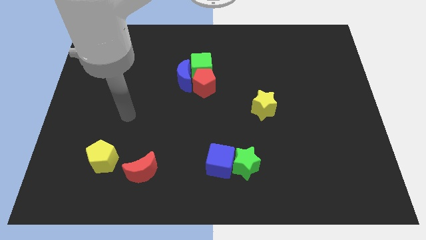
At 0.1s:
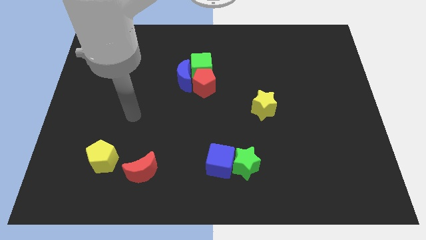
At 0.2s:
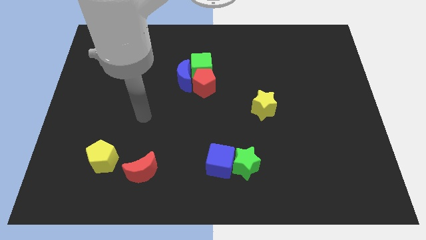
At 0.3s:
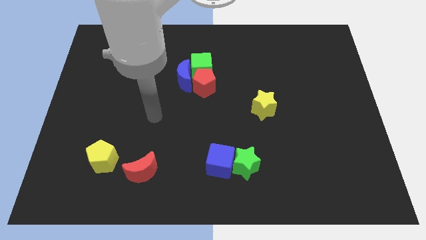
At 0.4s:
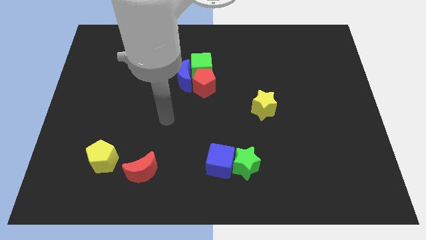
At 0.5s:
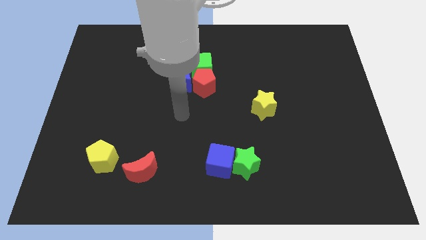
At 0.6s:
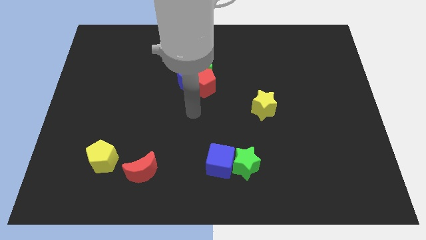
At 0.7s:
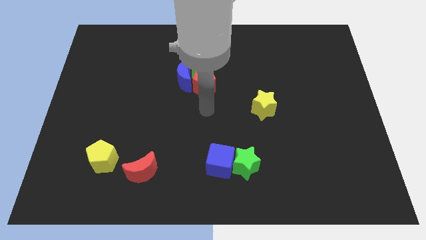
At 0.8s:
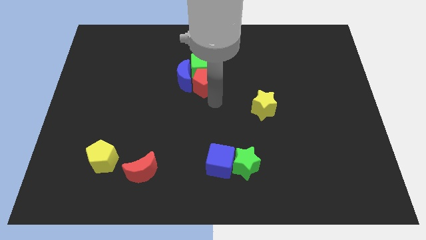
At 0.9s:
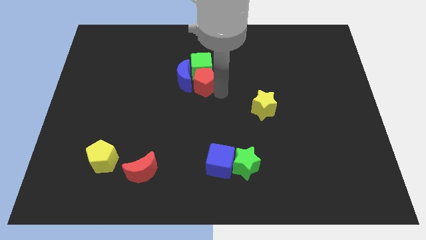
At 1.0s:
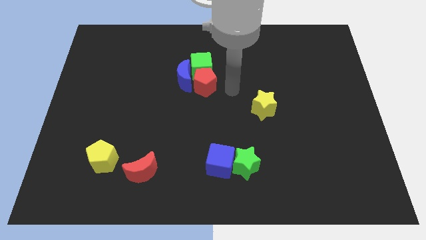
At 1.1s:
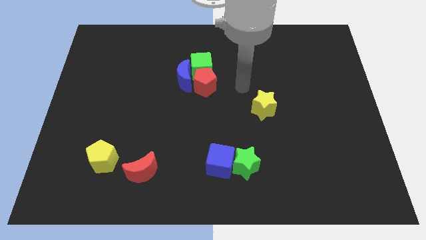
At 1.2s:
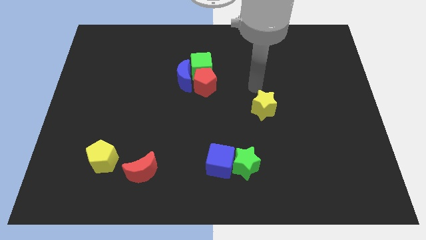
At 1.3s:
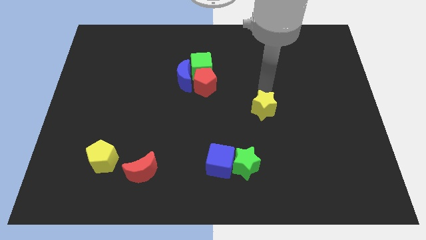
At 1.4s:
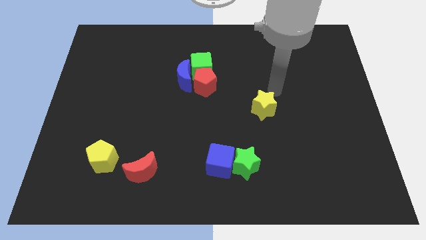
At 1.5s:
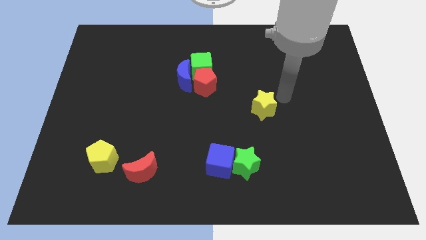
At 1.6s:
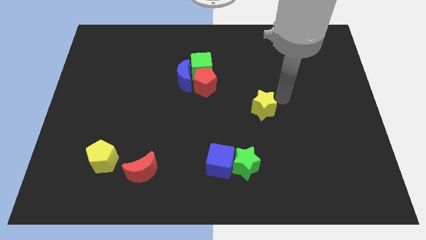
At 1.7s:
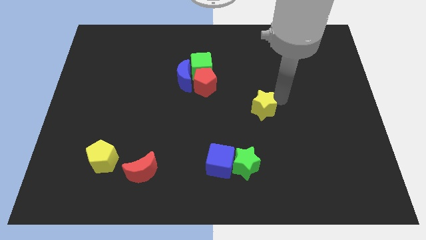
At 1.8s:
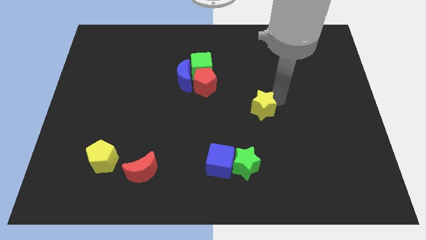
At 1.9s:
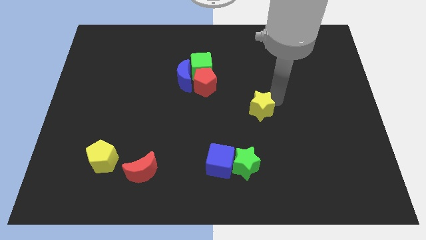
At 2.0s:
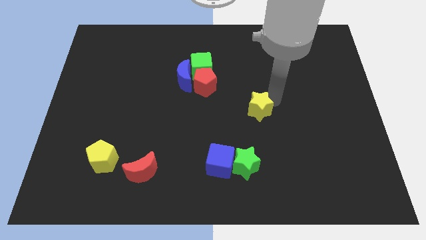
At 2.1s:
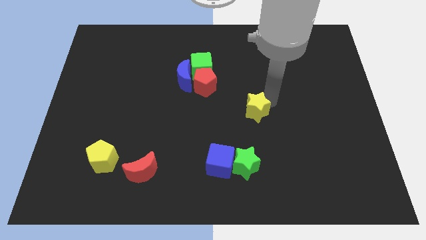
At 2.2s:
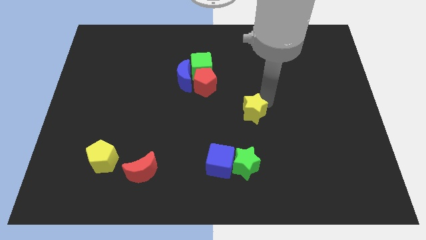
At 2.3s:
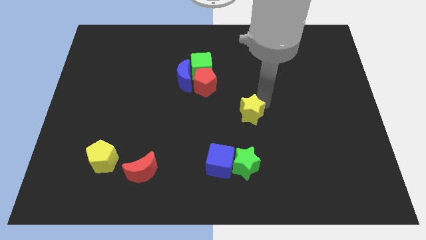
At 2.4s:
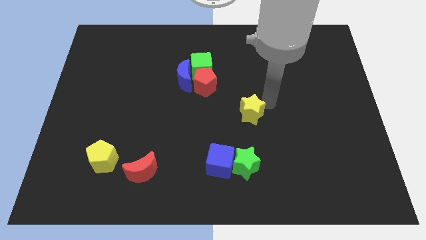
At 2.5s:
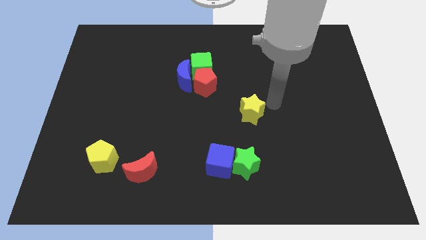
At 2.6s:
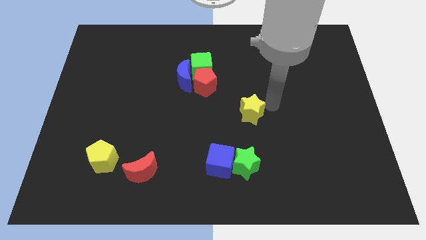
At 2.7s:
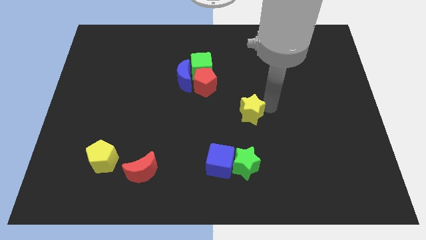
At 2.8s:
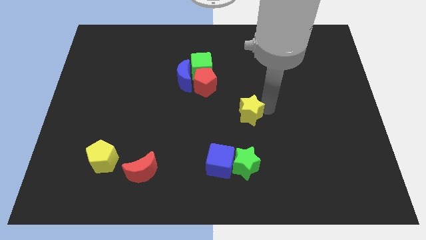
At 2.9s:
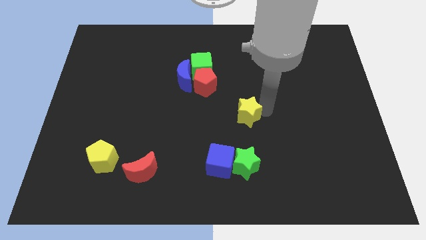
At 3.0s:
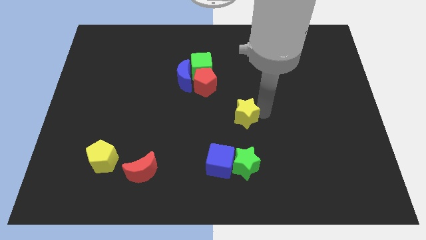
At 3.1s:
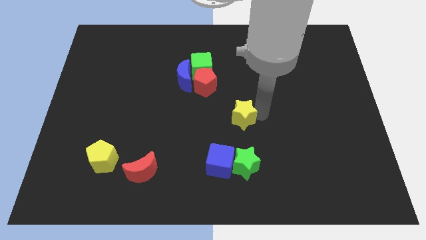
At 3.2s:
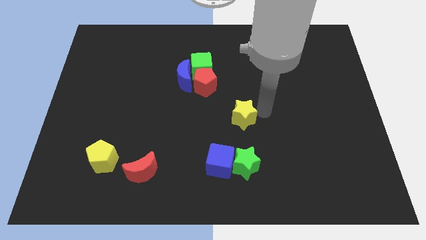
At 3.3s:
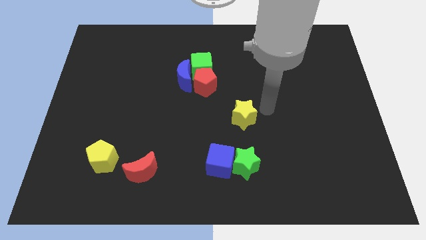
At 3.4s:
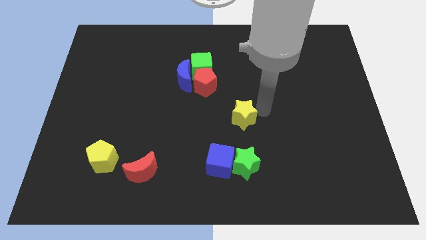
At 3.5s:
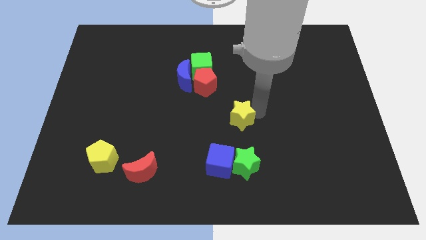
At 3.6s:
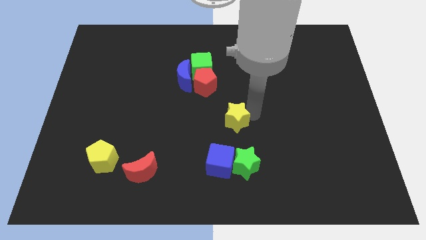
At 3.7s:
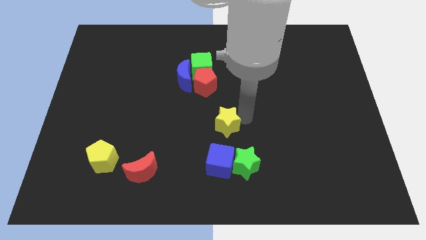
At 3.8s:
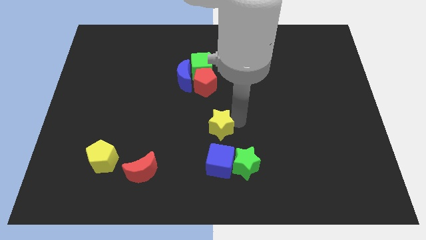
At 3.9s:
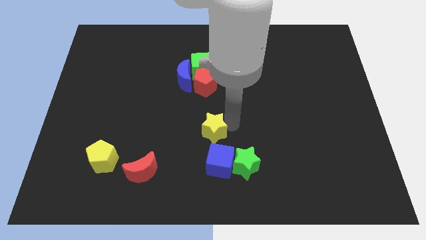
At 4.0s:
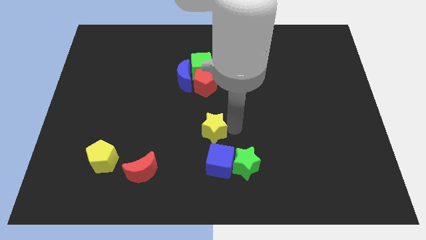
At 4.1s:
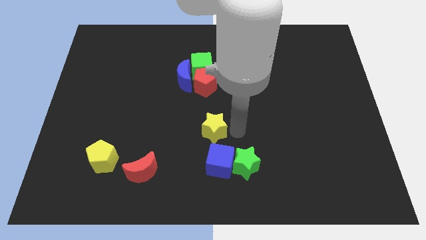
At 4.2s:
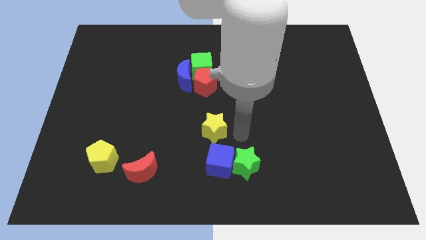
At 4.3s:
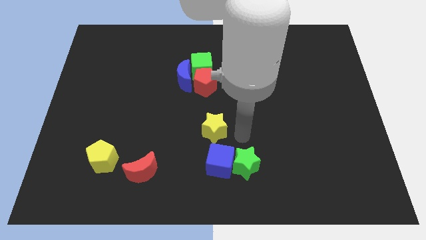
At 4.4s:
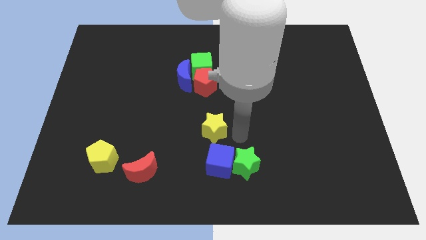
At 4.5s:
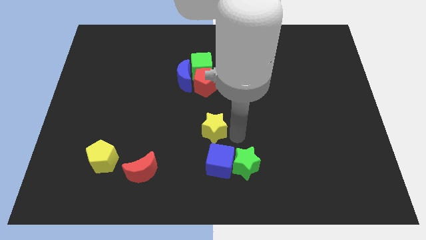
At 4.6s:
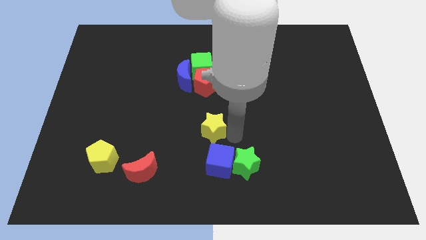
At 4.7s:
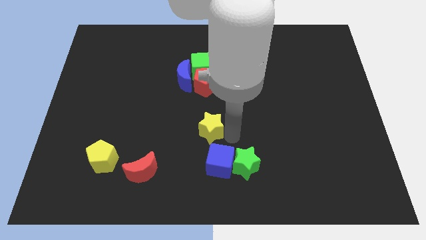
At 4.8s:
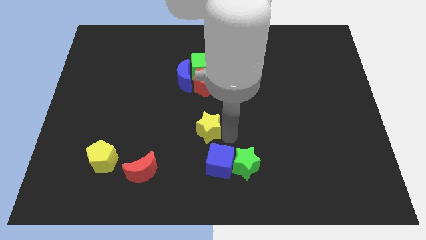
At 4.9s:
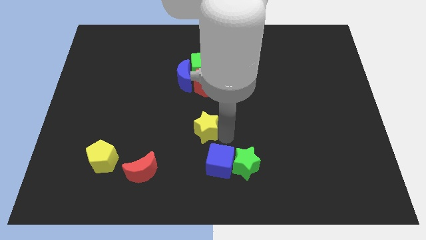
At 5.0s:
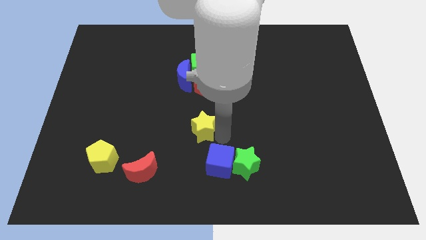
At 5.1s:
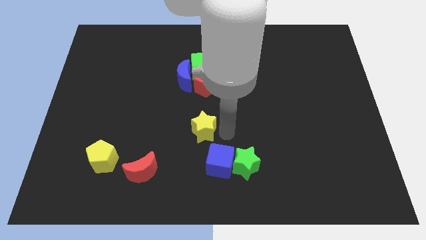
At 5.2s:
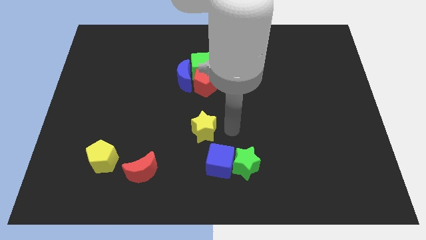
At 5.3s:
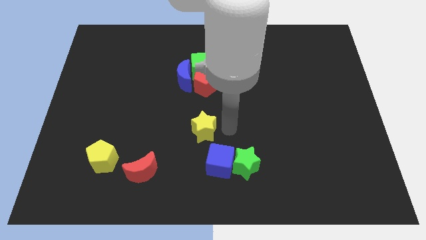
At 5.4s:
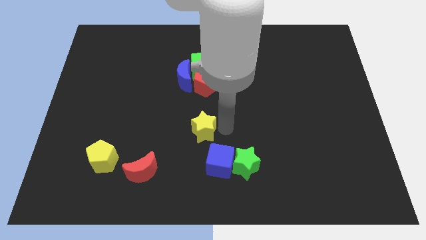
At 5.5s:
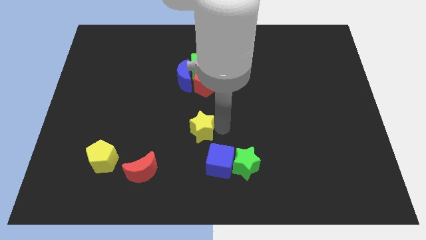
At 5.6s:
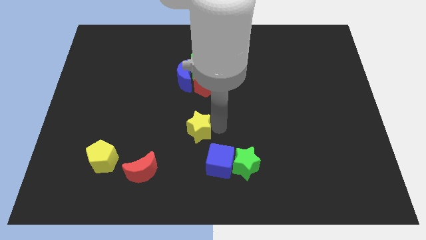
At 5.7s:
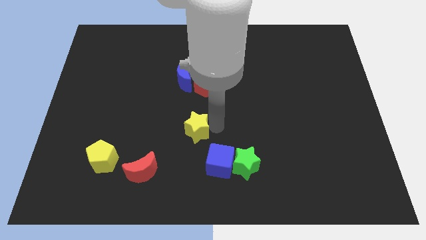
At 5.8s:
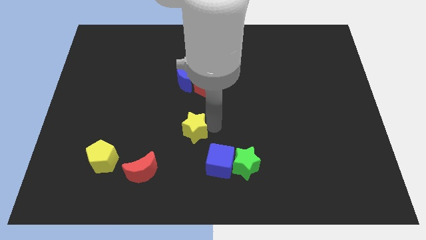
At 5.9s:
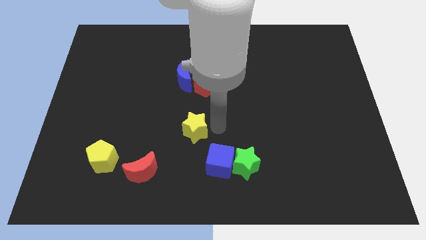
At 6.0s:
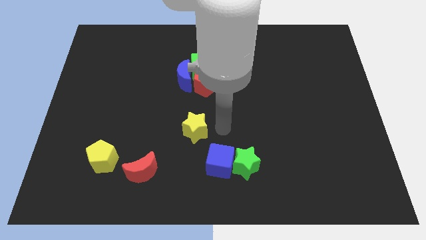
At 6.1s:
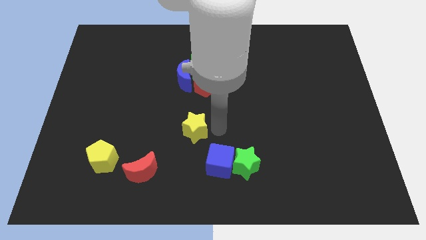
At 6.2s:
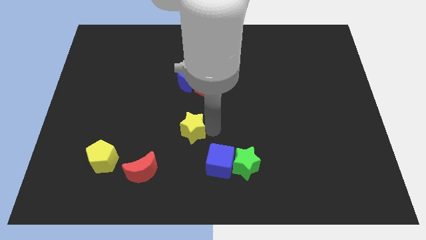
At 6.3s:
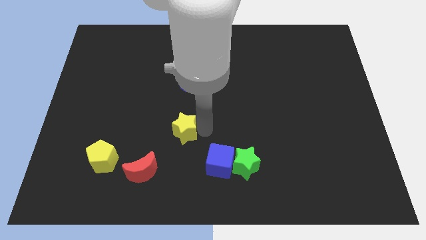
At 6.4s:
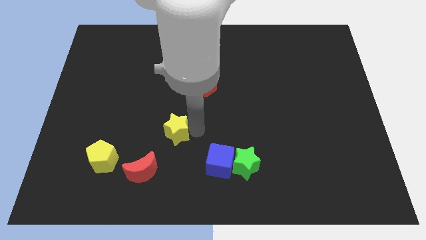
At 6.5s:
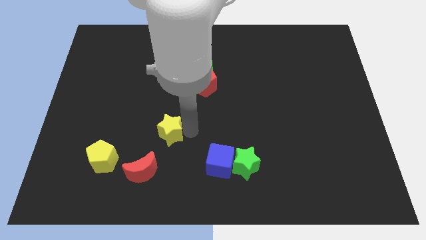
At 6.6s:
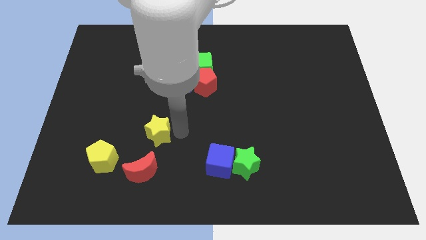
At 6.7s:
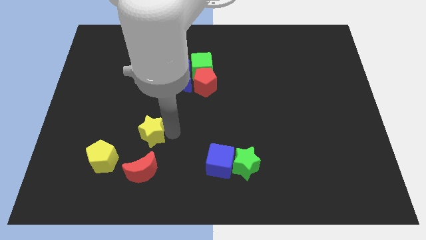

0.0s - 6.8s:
move the yellow star diagonally up and to the right of the yellow pentagon
